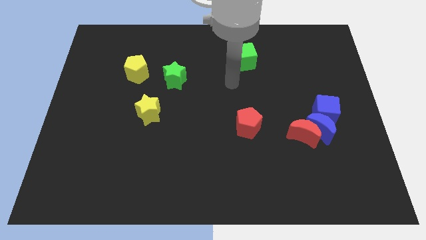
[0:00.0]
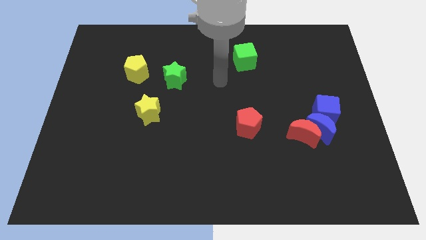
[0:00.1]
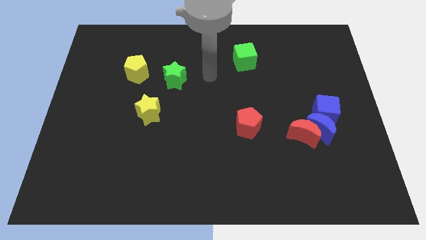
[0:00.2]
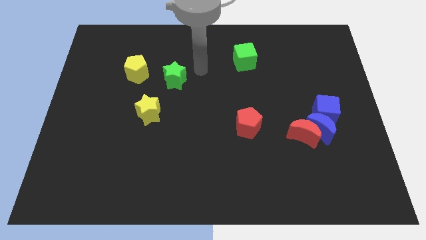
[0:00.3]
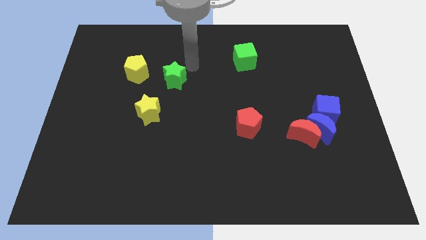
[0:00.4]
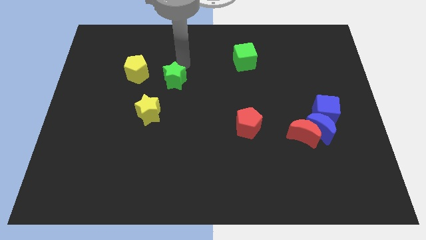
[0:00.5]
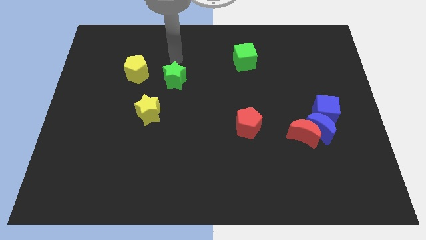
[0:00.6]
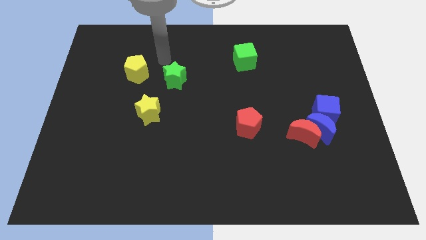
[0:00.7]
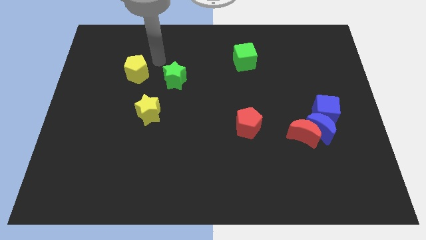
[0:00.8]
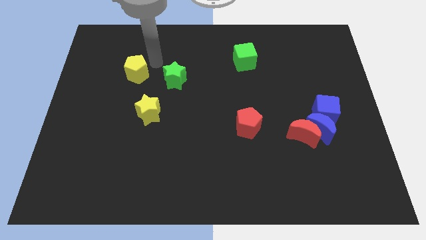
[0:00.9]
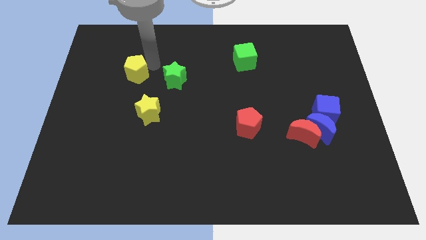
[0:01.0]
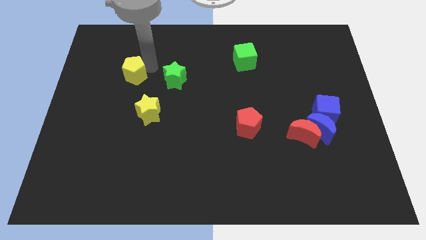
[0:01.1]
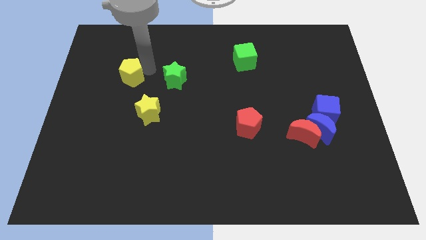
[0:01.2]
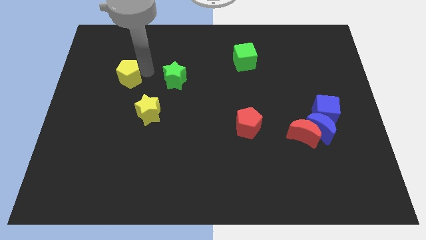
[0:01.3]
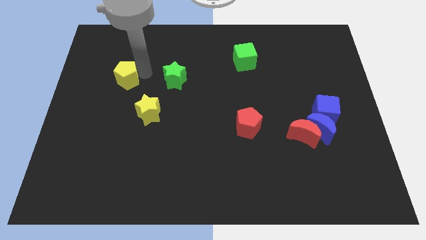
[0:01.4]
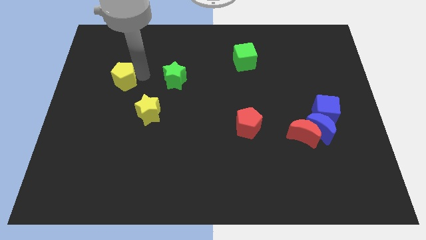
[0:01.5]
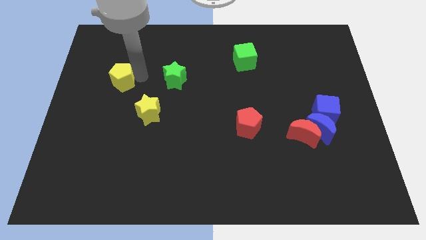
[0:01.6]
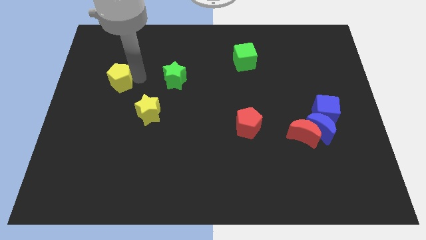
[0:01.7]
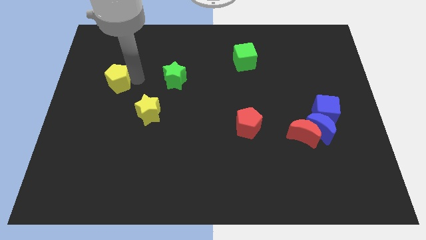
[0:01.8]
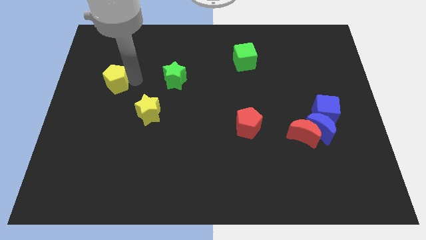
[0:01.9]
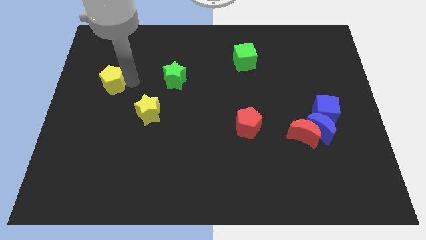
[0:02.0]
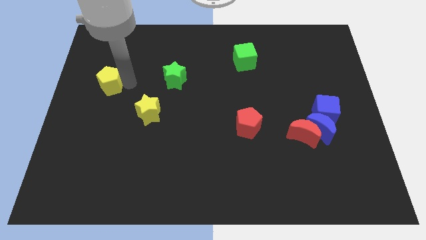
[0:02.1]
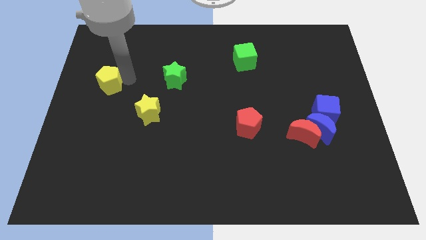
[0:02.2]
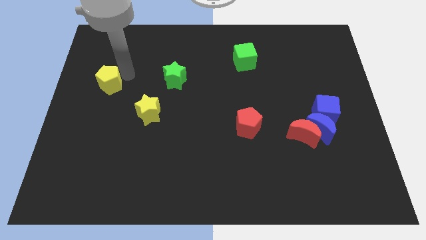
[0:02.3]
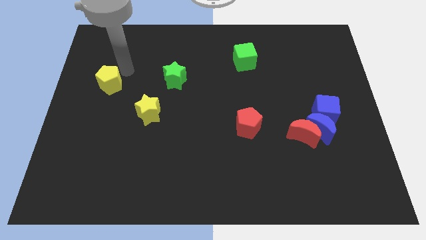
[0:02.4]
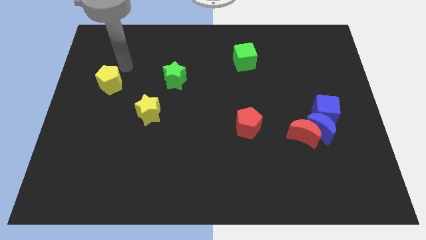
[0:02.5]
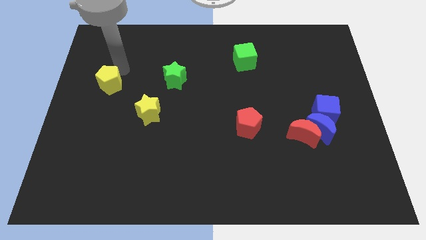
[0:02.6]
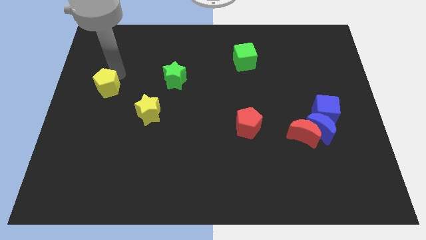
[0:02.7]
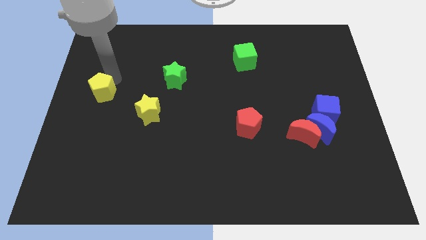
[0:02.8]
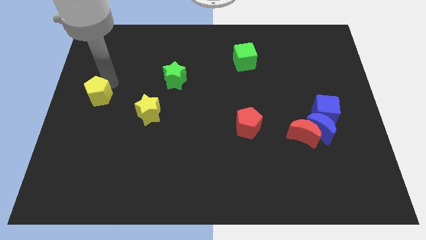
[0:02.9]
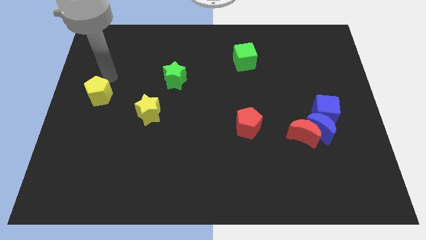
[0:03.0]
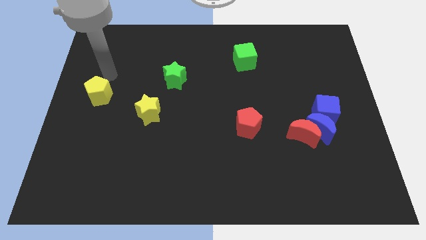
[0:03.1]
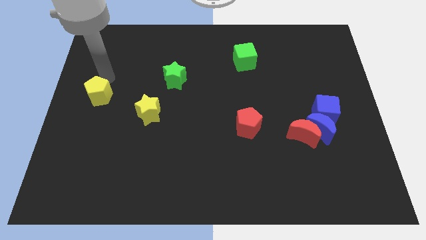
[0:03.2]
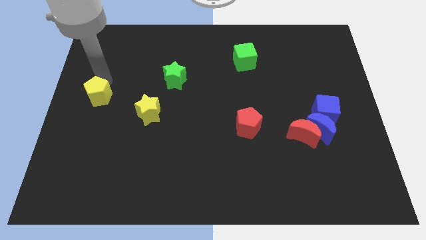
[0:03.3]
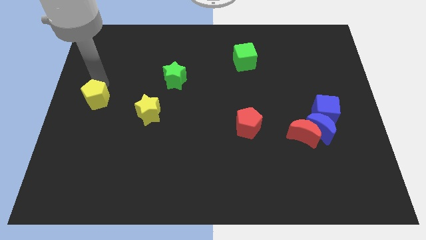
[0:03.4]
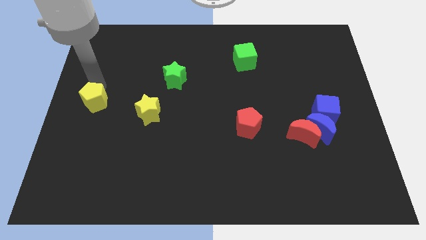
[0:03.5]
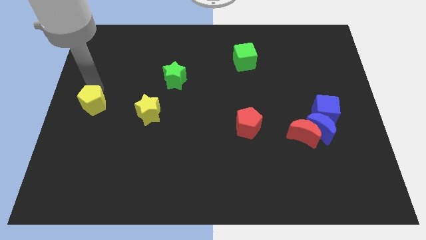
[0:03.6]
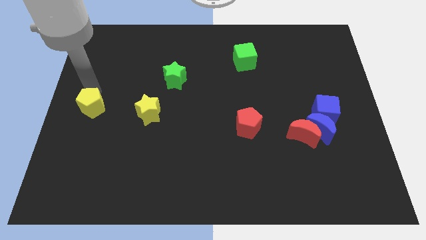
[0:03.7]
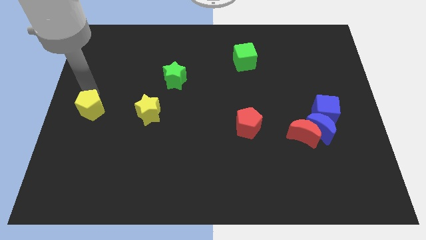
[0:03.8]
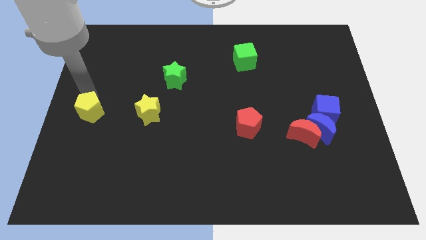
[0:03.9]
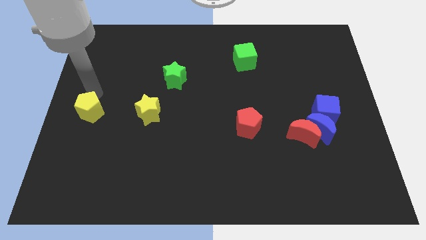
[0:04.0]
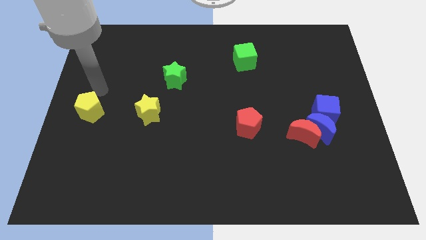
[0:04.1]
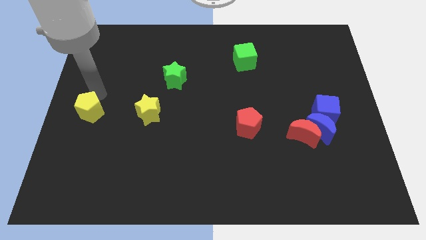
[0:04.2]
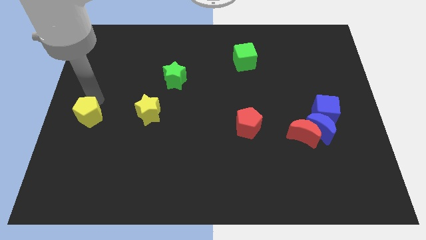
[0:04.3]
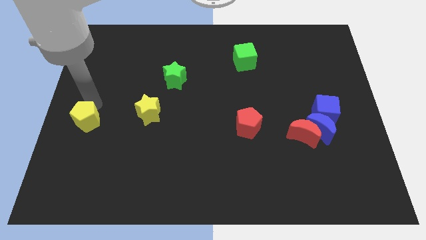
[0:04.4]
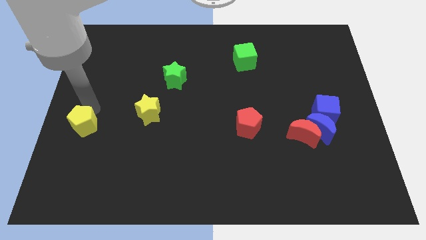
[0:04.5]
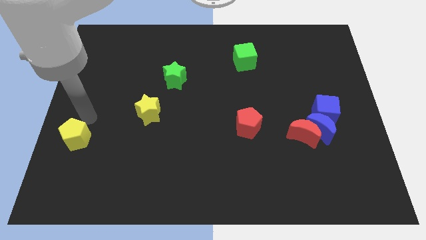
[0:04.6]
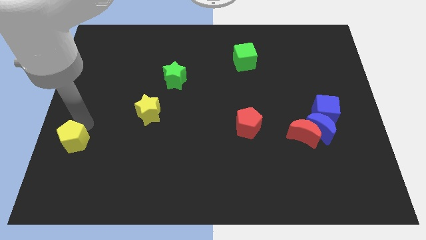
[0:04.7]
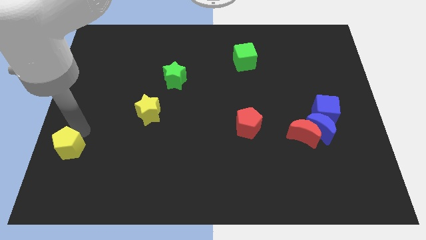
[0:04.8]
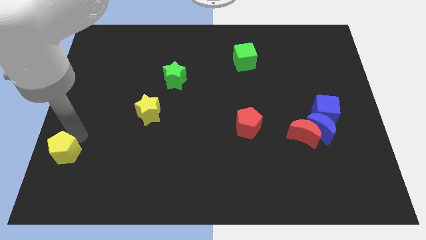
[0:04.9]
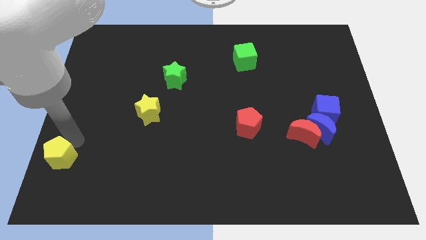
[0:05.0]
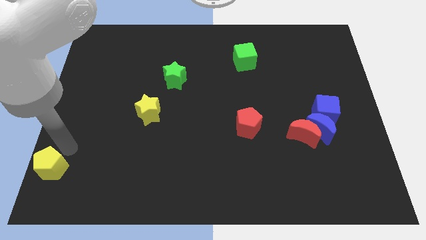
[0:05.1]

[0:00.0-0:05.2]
put the yellow pentagon to the bottom left of the board

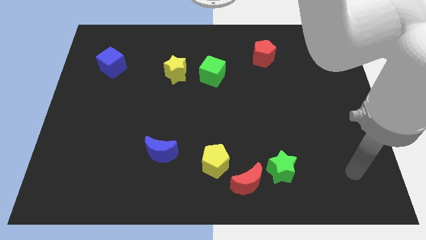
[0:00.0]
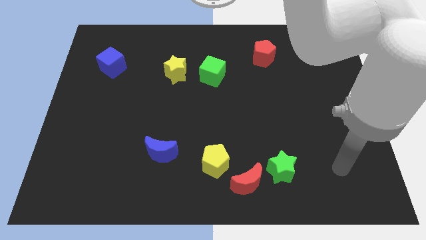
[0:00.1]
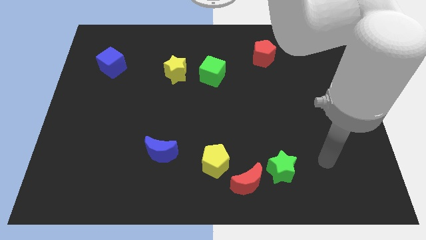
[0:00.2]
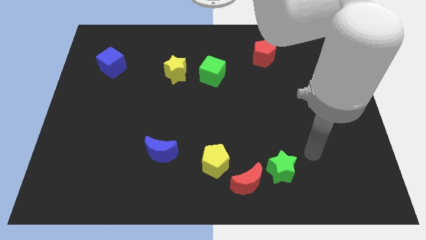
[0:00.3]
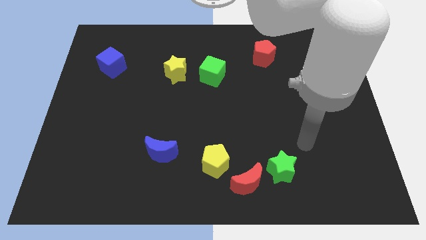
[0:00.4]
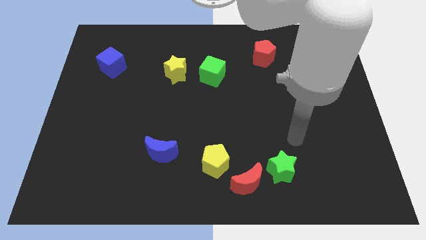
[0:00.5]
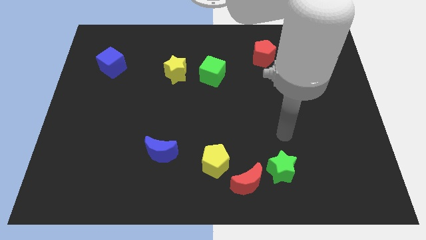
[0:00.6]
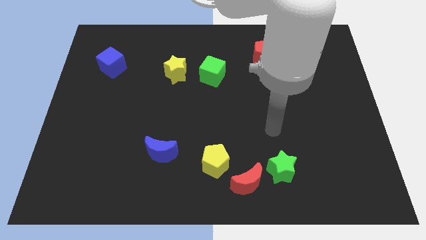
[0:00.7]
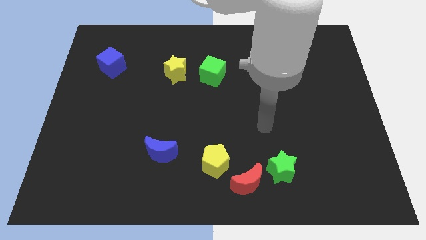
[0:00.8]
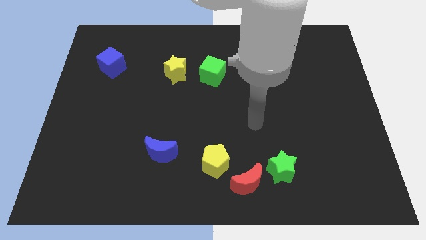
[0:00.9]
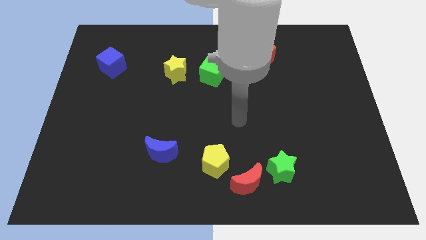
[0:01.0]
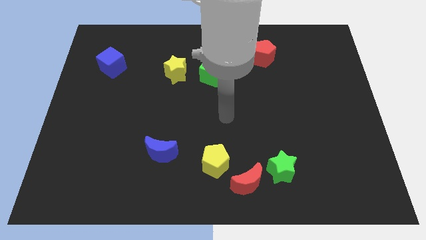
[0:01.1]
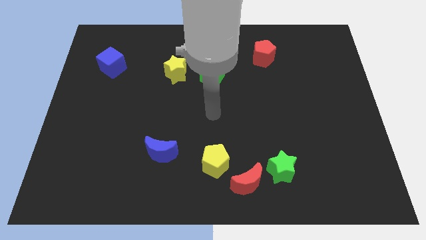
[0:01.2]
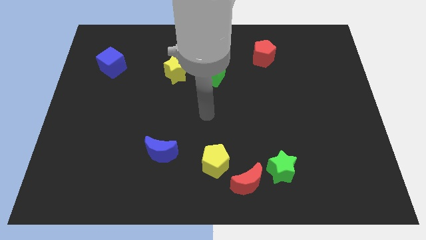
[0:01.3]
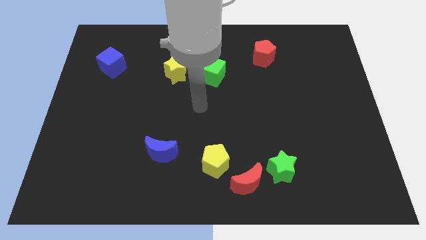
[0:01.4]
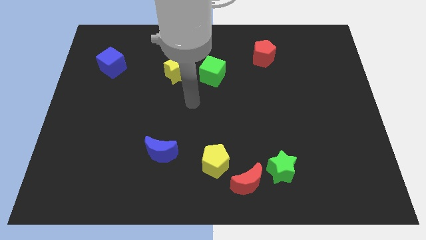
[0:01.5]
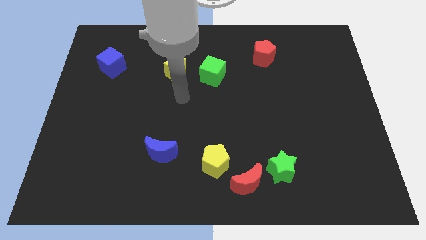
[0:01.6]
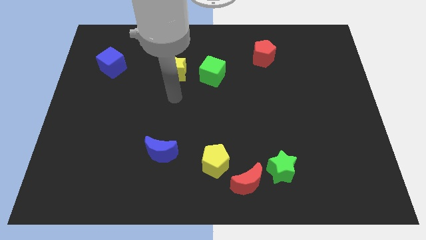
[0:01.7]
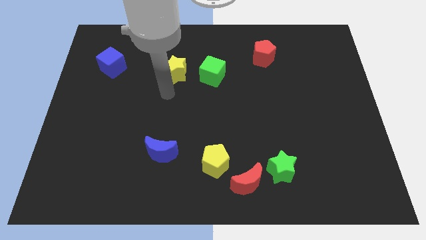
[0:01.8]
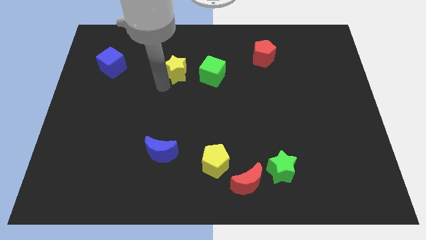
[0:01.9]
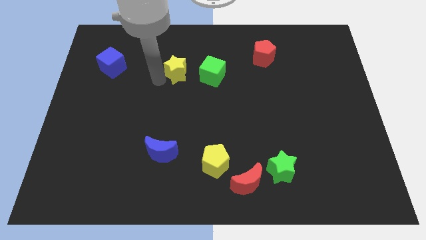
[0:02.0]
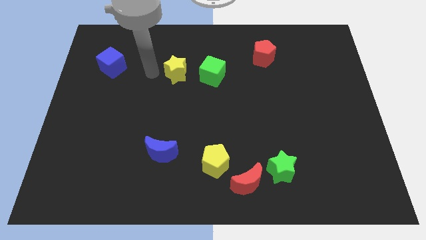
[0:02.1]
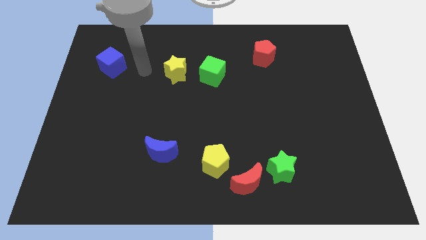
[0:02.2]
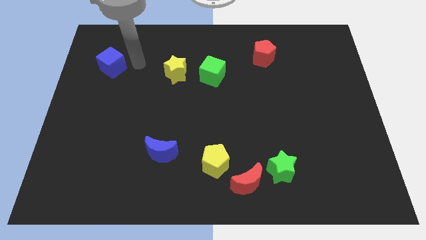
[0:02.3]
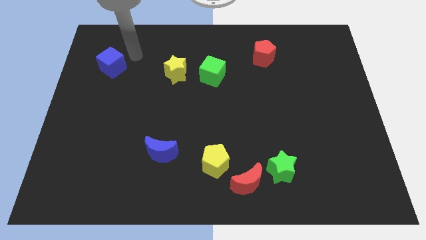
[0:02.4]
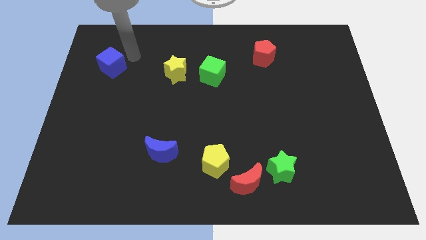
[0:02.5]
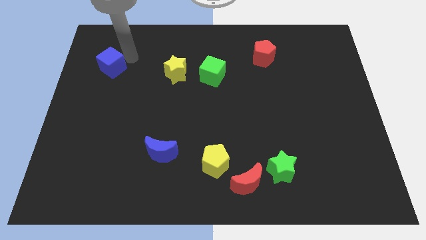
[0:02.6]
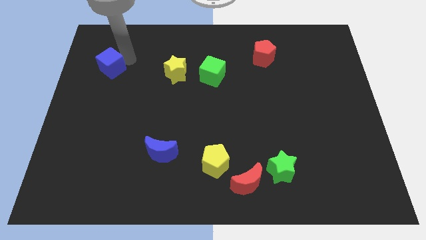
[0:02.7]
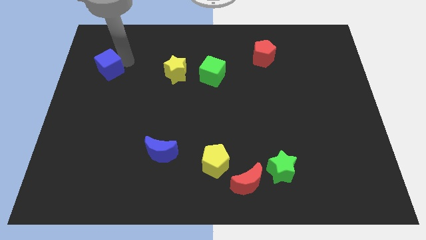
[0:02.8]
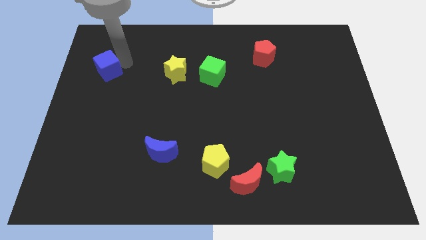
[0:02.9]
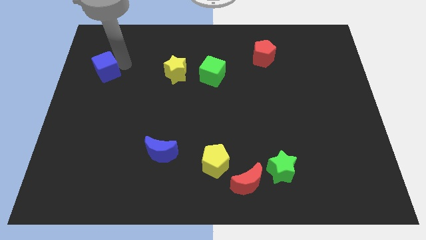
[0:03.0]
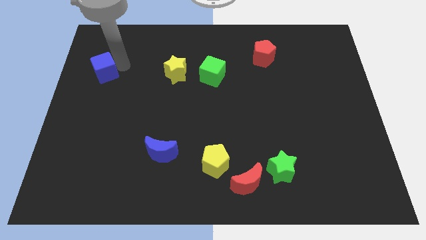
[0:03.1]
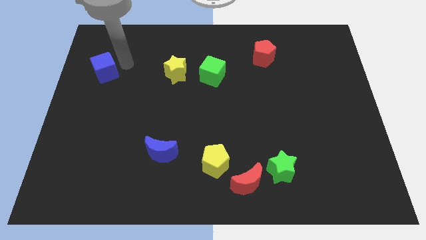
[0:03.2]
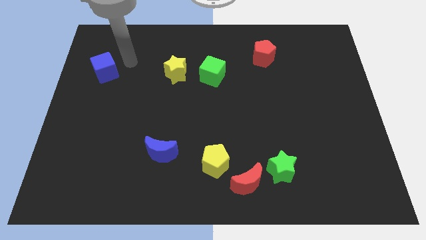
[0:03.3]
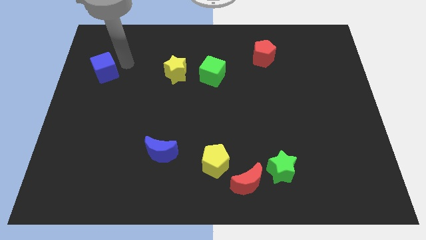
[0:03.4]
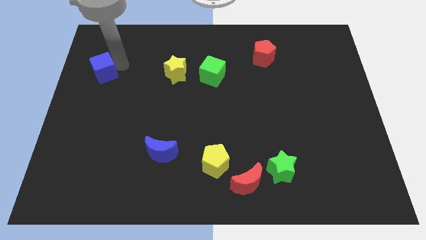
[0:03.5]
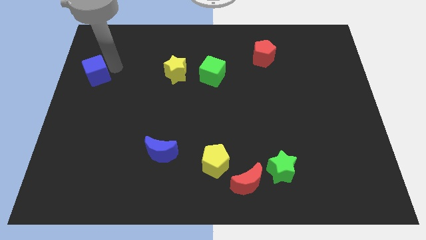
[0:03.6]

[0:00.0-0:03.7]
put the blue cube to the left side
